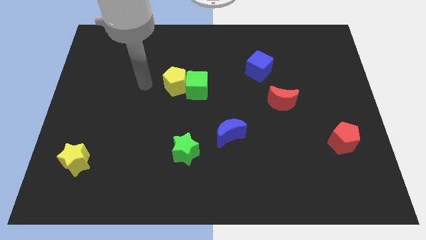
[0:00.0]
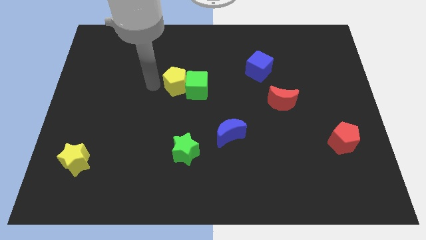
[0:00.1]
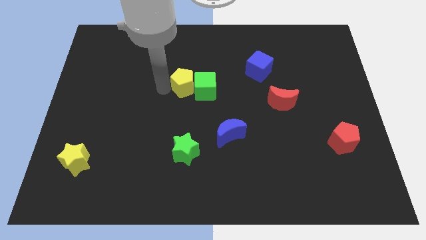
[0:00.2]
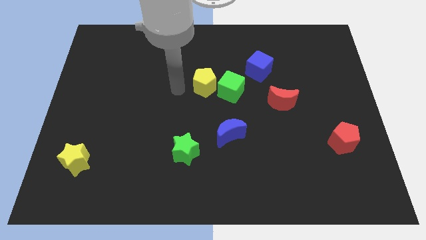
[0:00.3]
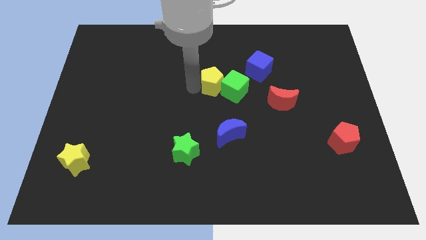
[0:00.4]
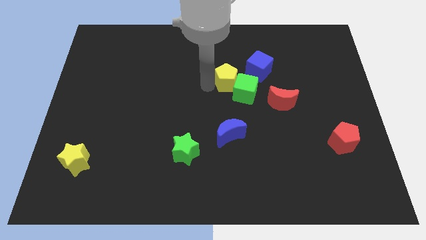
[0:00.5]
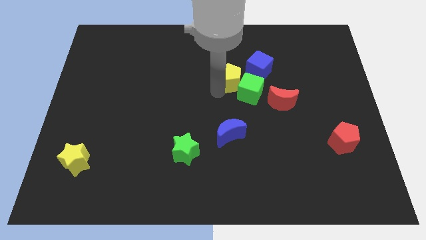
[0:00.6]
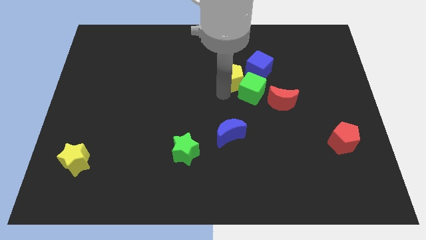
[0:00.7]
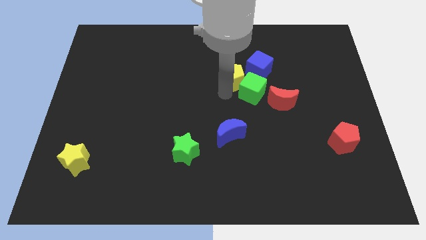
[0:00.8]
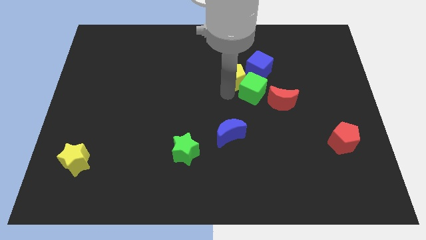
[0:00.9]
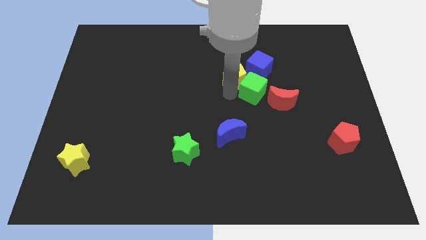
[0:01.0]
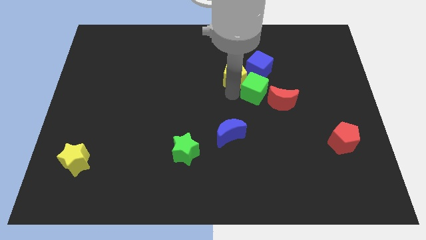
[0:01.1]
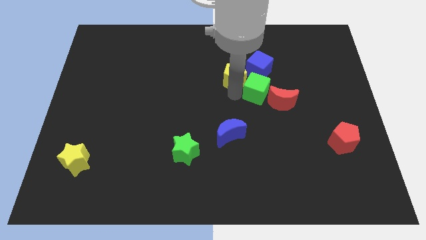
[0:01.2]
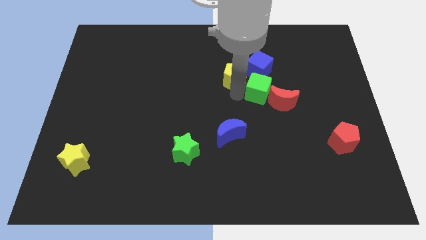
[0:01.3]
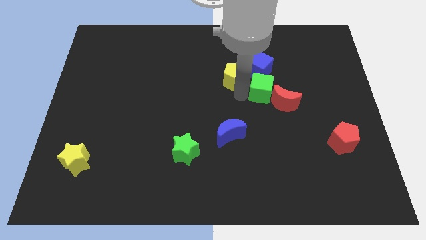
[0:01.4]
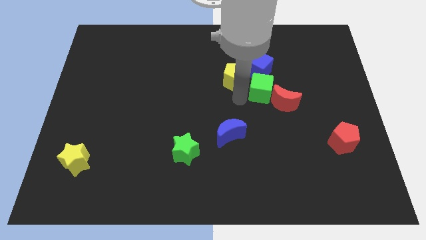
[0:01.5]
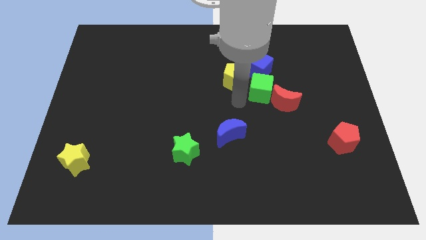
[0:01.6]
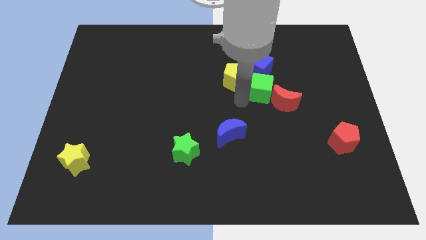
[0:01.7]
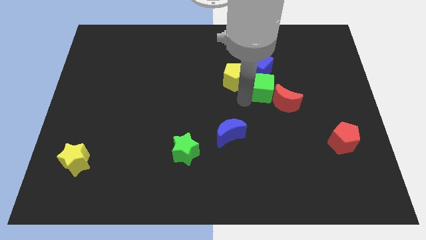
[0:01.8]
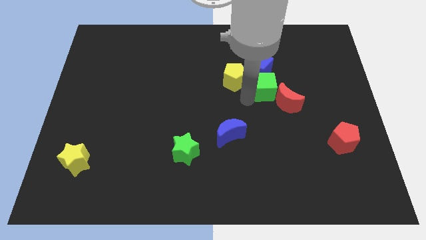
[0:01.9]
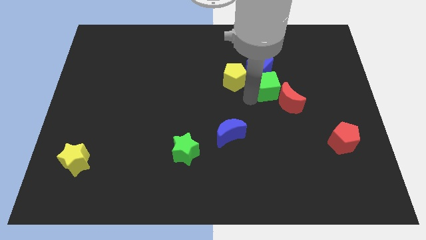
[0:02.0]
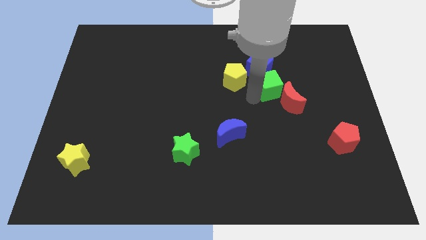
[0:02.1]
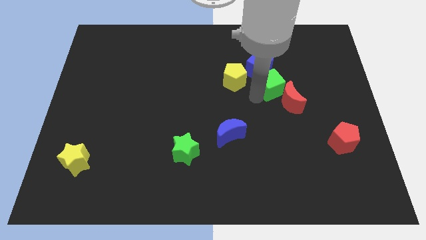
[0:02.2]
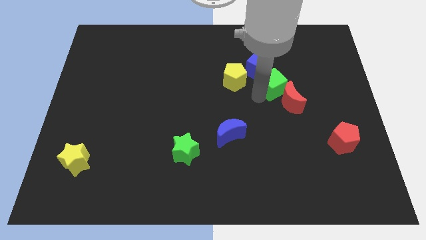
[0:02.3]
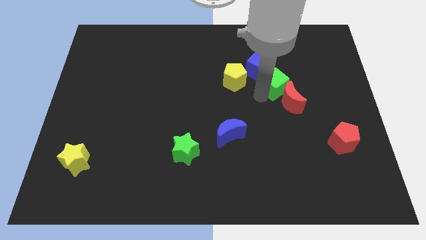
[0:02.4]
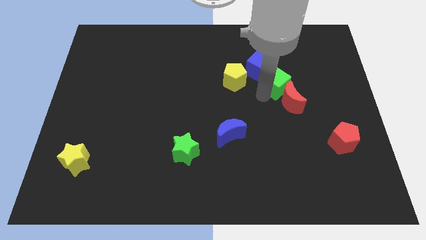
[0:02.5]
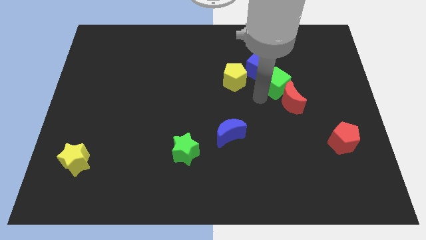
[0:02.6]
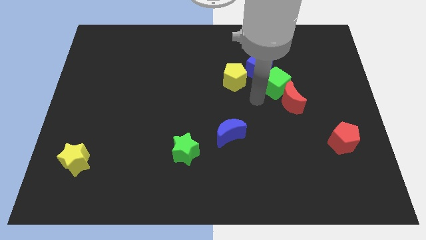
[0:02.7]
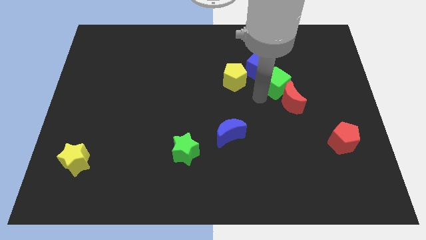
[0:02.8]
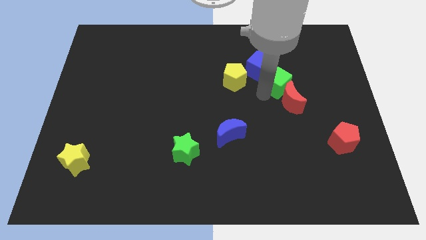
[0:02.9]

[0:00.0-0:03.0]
move the green cube right

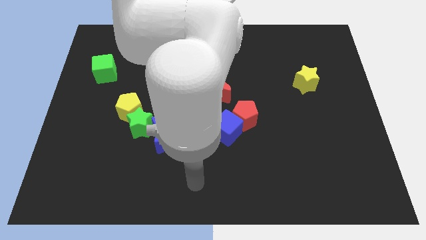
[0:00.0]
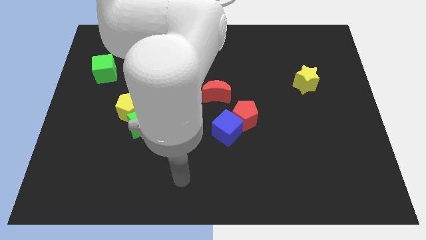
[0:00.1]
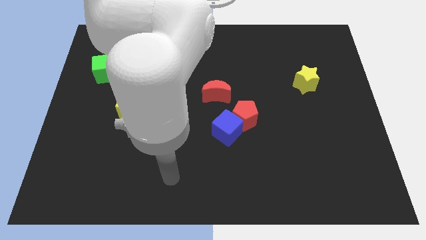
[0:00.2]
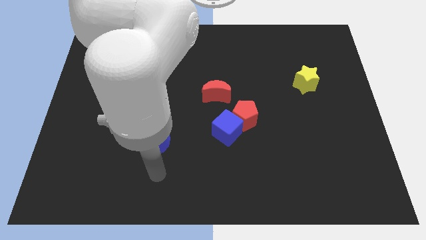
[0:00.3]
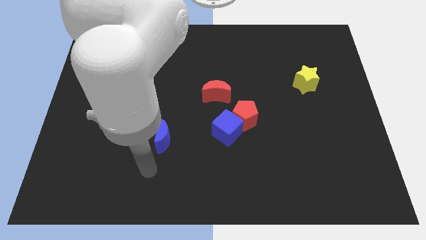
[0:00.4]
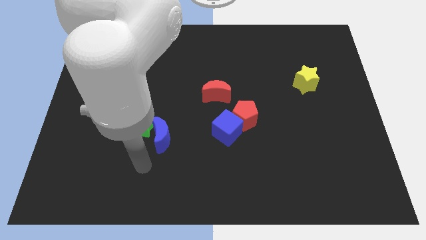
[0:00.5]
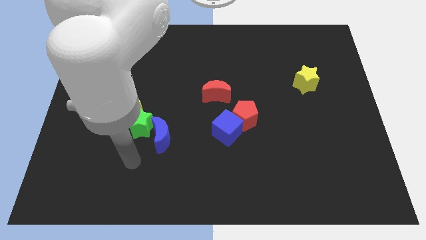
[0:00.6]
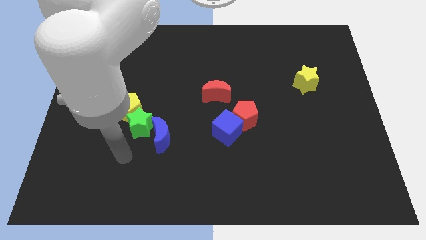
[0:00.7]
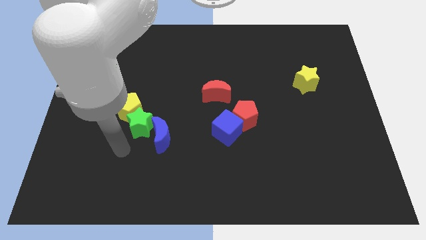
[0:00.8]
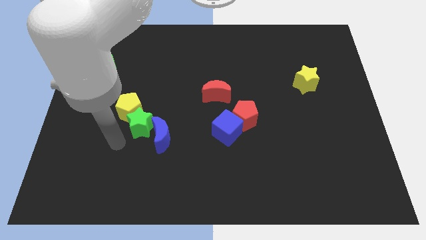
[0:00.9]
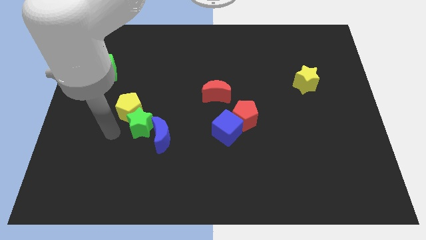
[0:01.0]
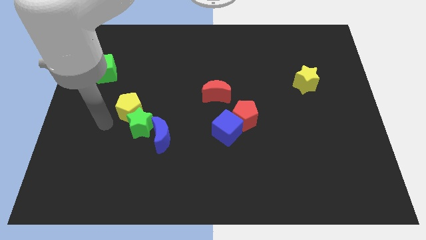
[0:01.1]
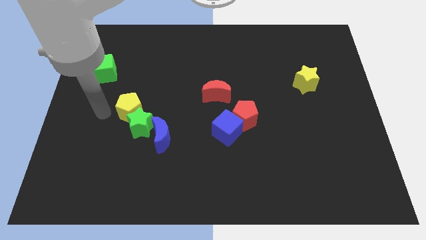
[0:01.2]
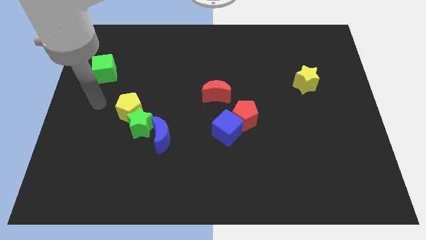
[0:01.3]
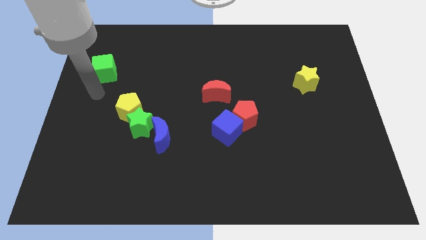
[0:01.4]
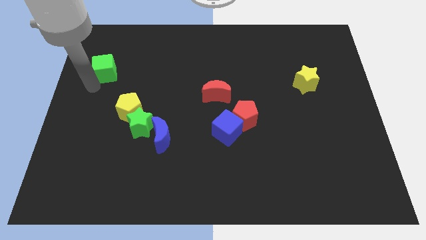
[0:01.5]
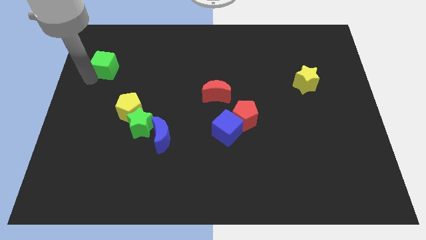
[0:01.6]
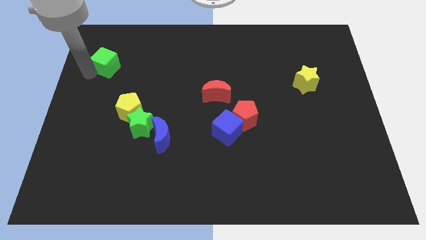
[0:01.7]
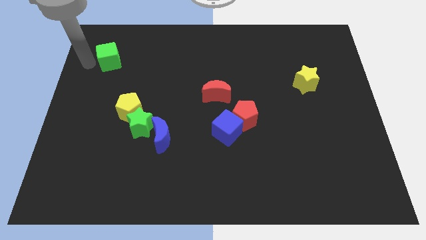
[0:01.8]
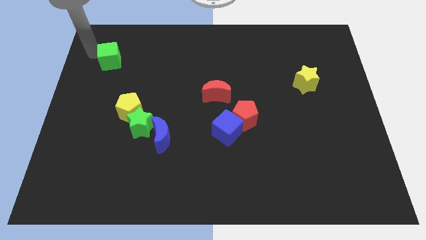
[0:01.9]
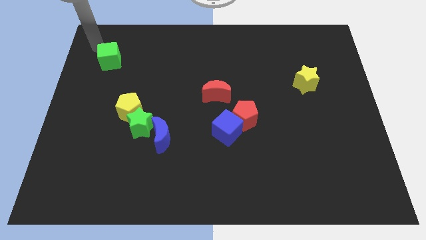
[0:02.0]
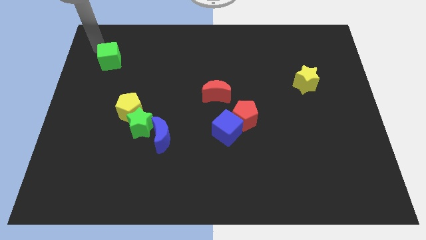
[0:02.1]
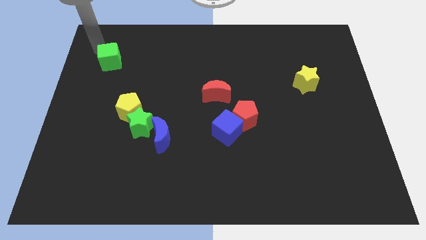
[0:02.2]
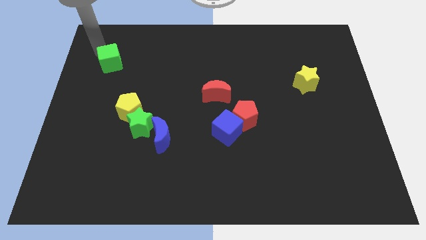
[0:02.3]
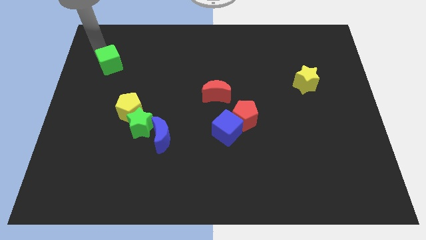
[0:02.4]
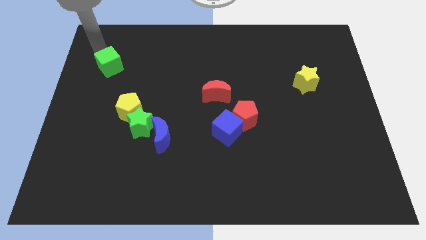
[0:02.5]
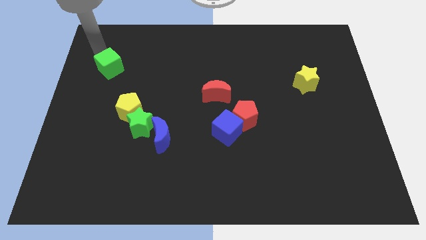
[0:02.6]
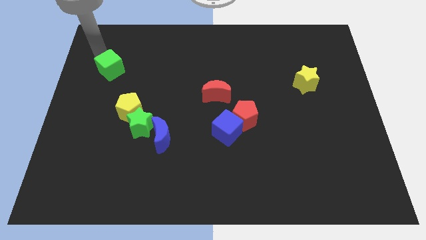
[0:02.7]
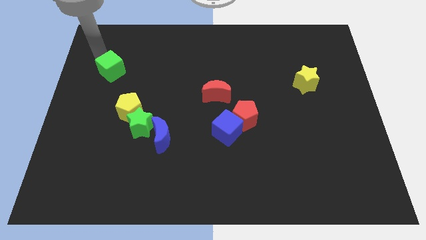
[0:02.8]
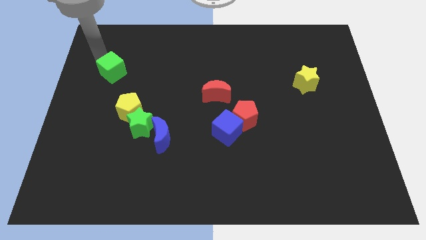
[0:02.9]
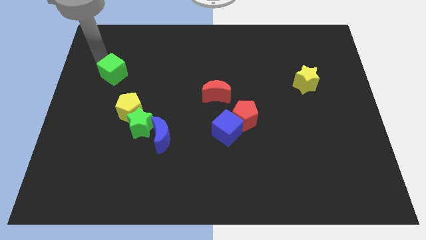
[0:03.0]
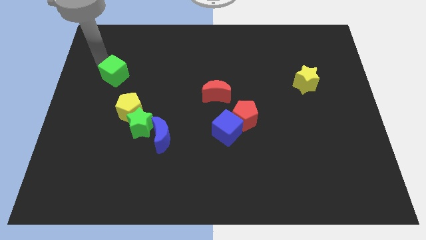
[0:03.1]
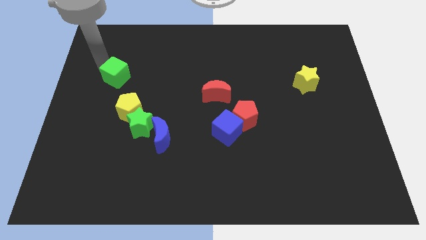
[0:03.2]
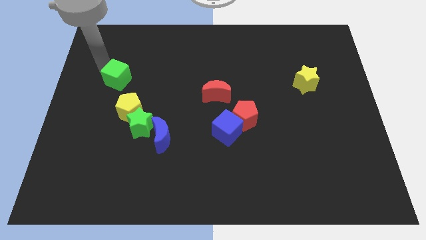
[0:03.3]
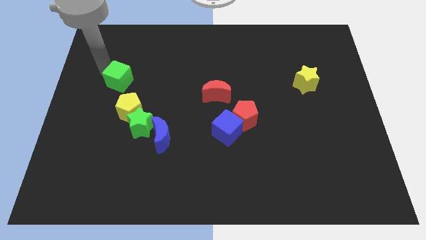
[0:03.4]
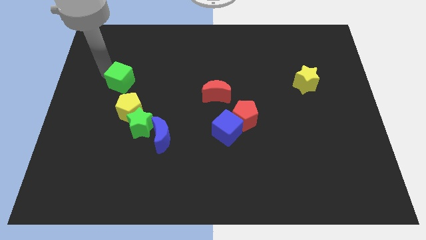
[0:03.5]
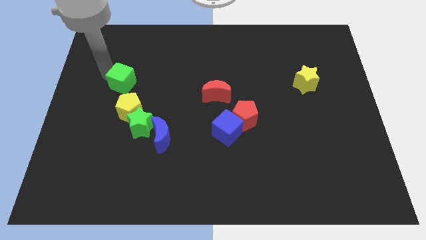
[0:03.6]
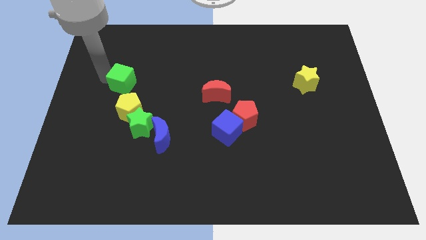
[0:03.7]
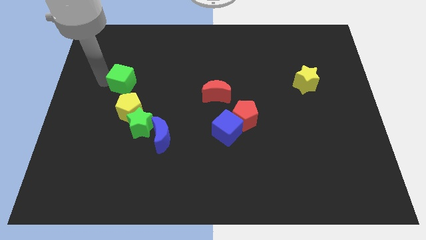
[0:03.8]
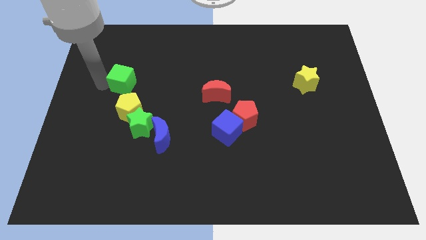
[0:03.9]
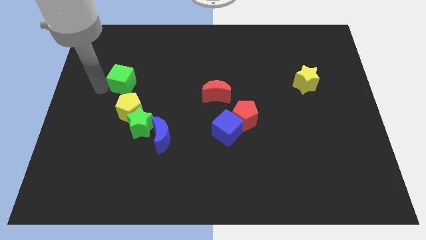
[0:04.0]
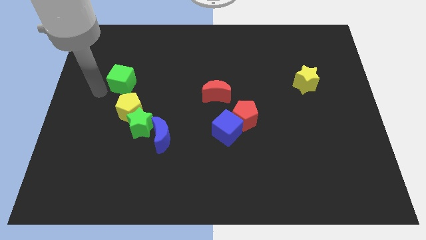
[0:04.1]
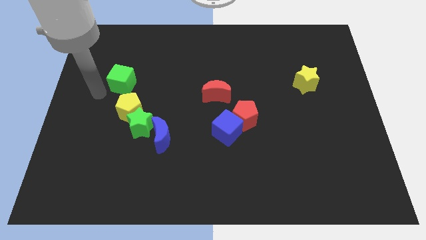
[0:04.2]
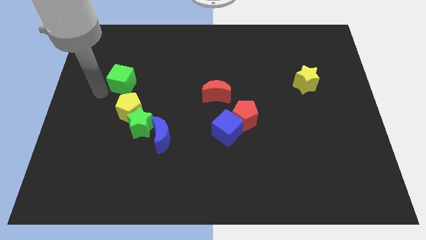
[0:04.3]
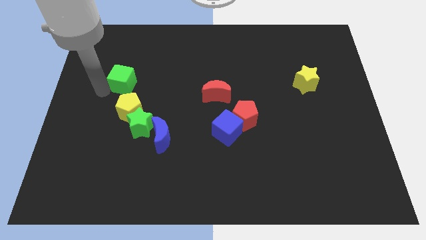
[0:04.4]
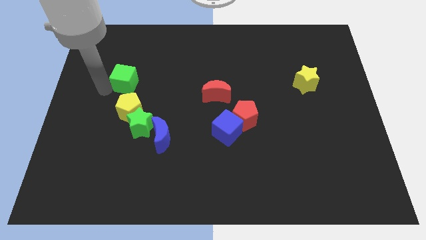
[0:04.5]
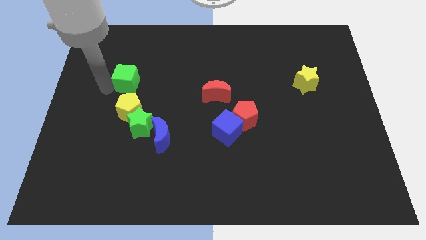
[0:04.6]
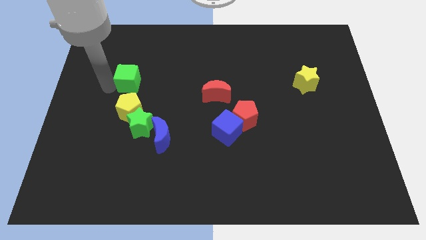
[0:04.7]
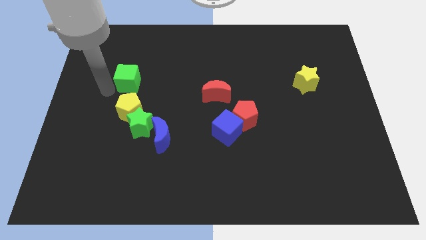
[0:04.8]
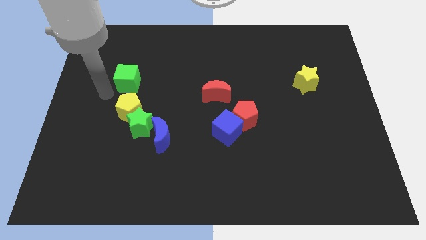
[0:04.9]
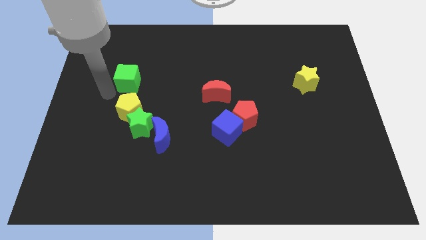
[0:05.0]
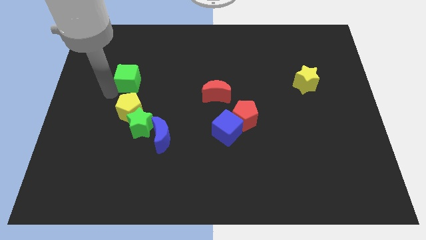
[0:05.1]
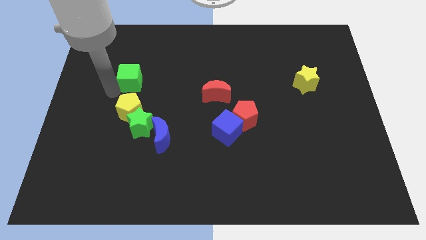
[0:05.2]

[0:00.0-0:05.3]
move the green cube a little bit right
